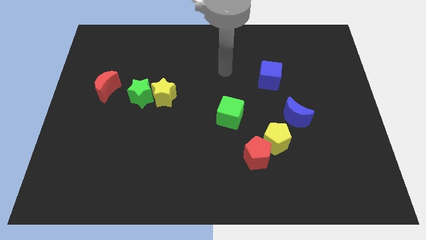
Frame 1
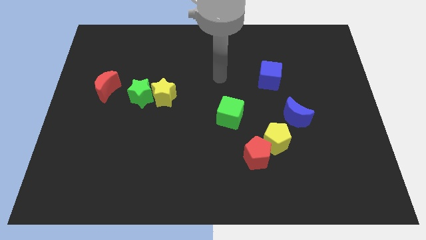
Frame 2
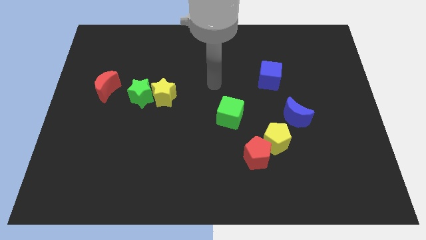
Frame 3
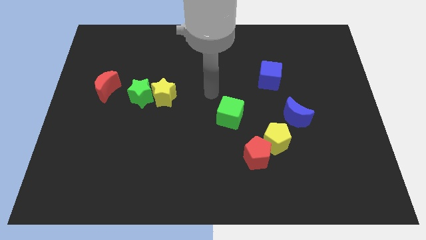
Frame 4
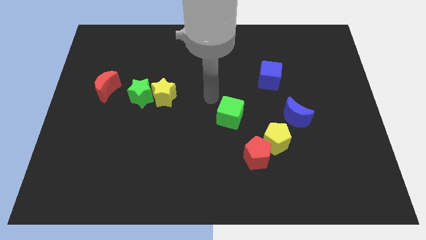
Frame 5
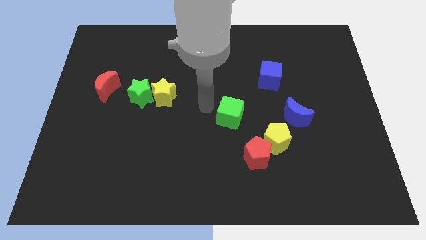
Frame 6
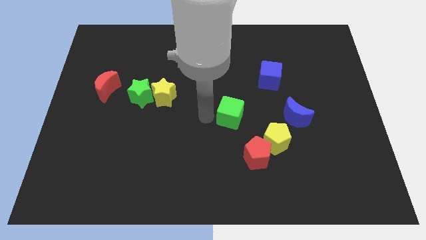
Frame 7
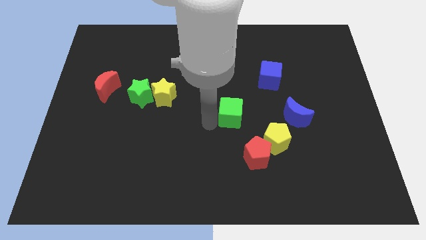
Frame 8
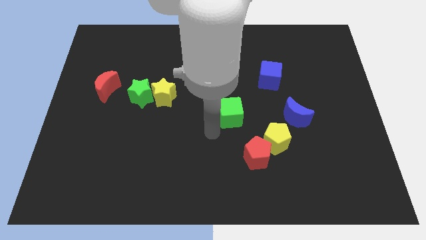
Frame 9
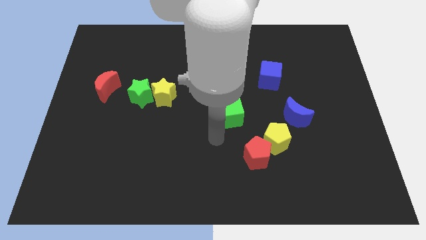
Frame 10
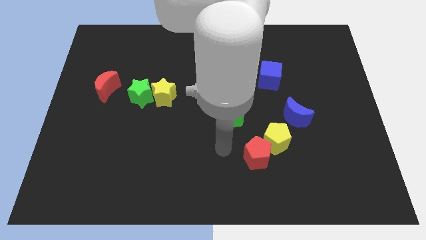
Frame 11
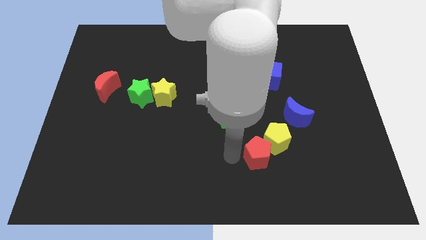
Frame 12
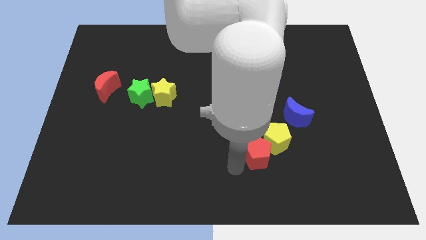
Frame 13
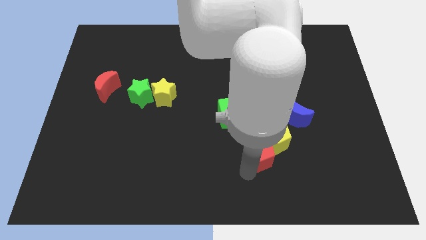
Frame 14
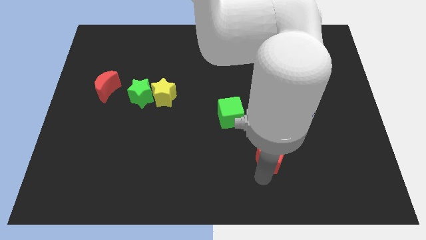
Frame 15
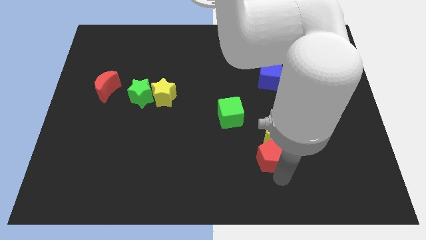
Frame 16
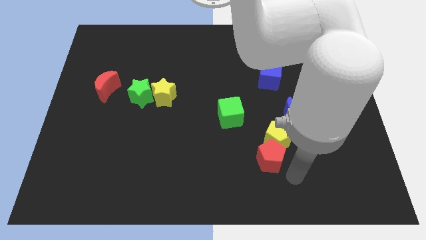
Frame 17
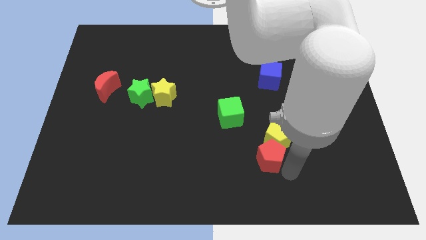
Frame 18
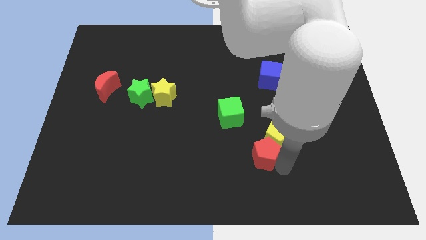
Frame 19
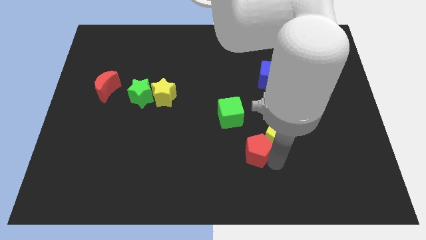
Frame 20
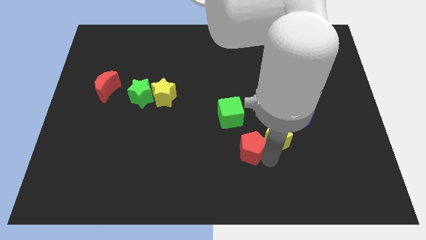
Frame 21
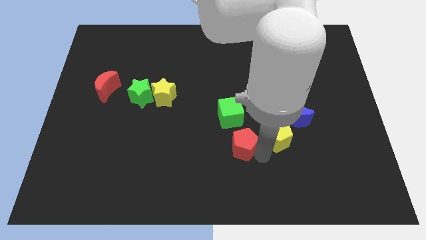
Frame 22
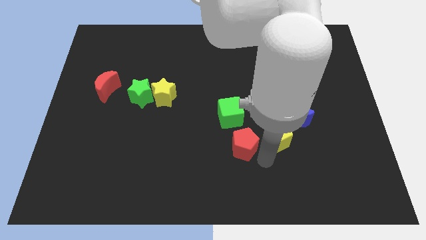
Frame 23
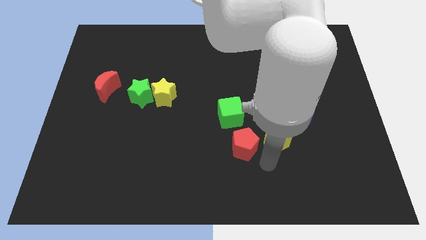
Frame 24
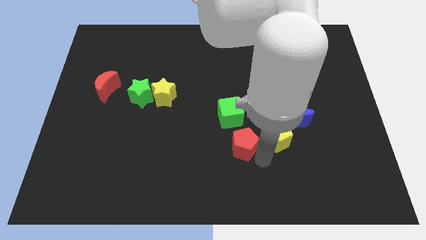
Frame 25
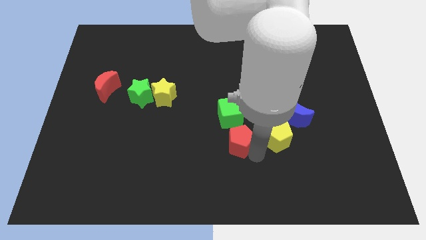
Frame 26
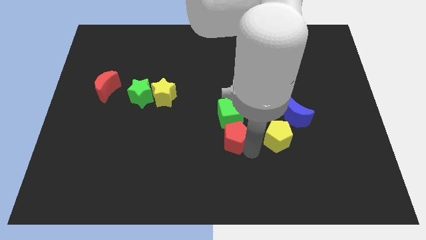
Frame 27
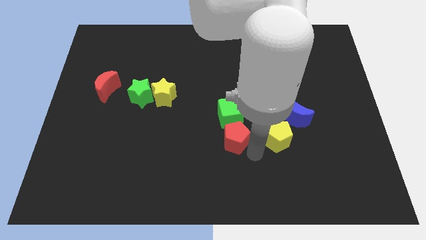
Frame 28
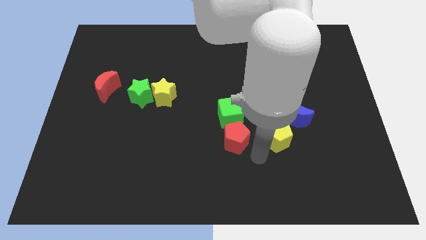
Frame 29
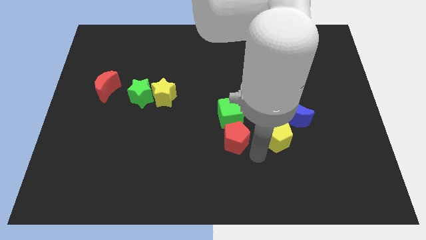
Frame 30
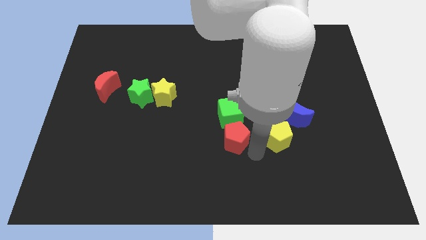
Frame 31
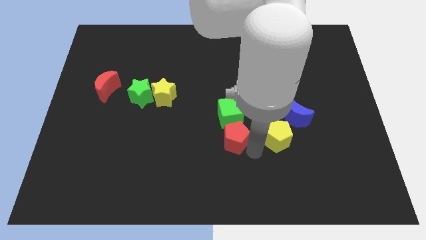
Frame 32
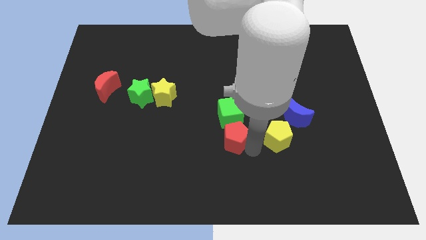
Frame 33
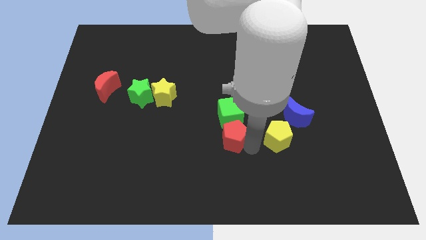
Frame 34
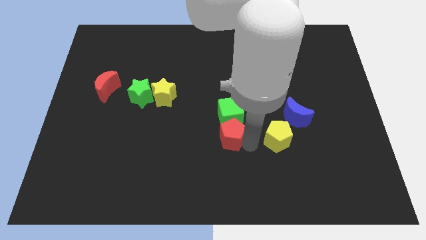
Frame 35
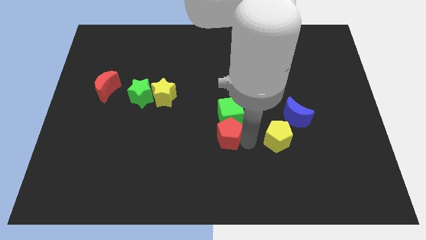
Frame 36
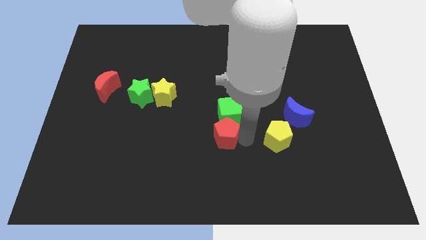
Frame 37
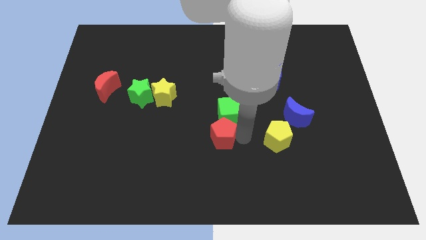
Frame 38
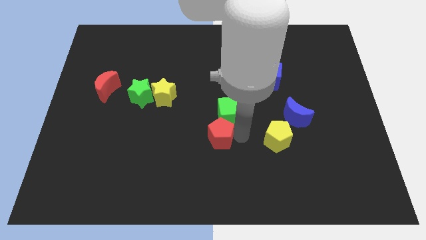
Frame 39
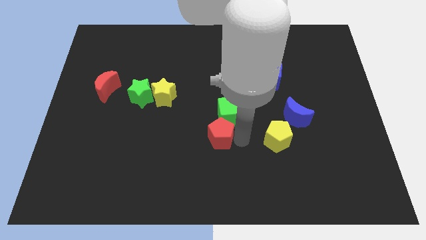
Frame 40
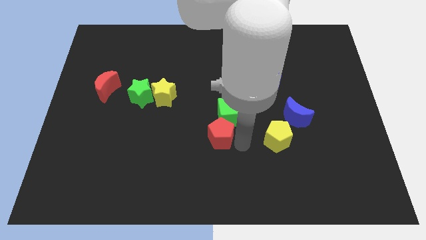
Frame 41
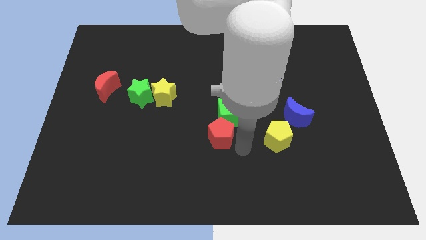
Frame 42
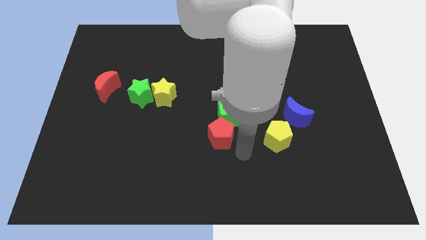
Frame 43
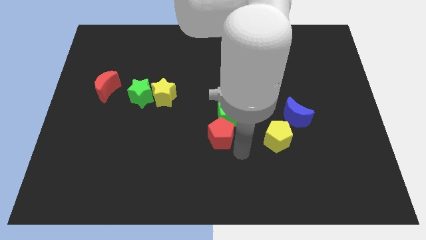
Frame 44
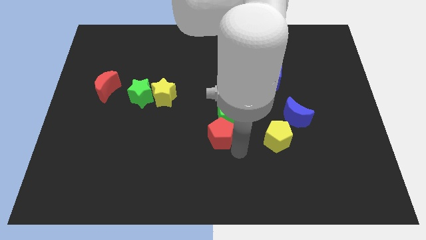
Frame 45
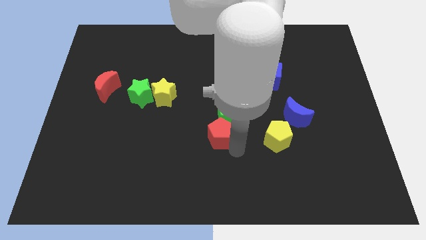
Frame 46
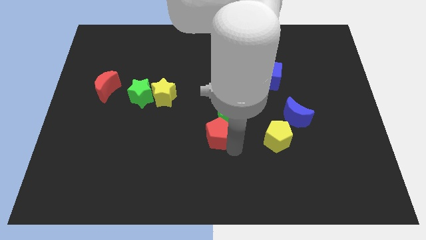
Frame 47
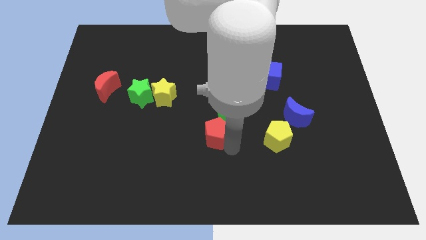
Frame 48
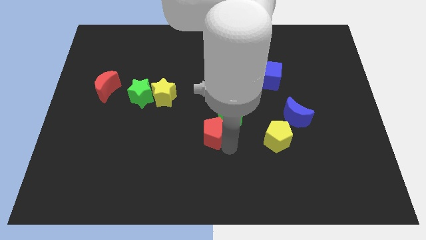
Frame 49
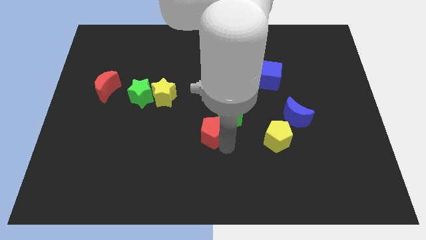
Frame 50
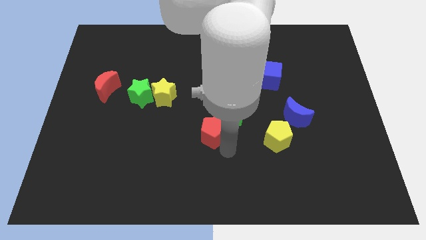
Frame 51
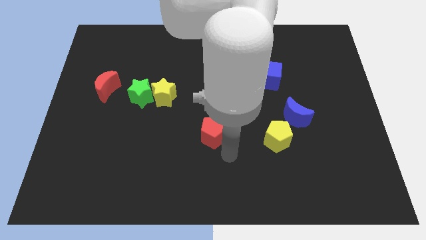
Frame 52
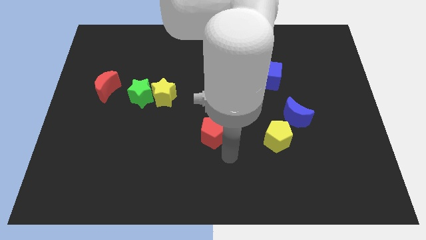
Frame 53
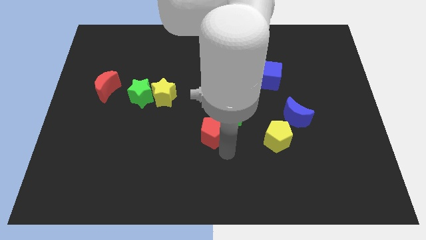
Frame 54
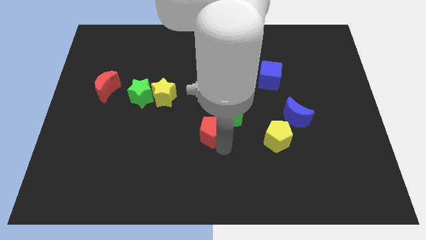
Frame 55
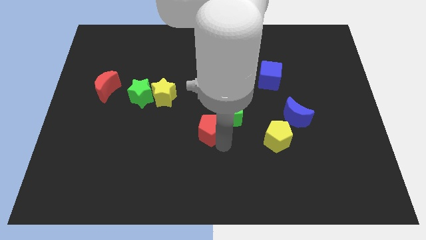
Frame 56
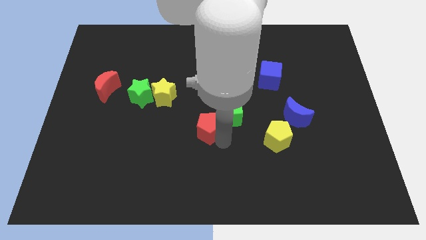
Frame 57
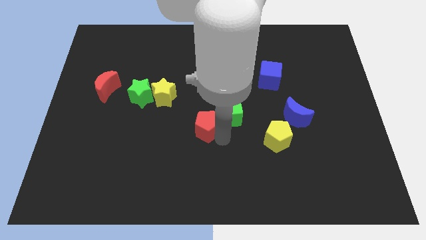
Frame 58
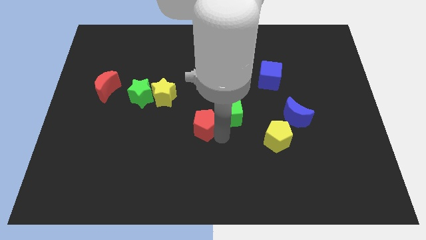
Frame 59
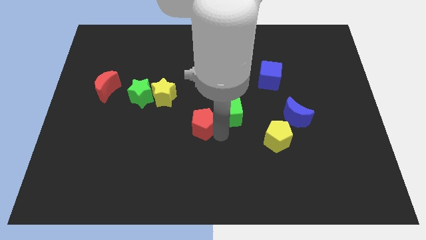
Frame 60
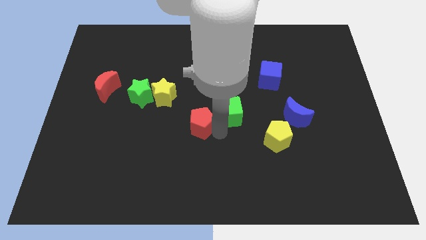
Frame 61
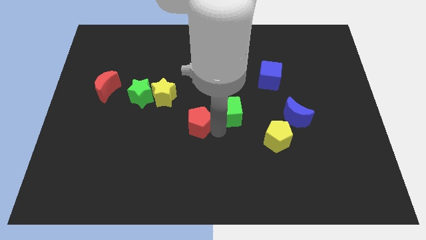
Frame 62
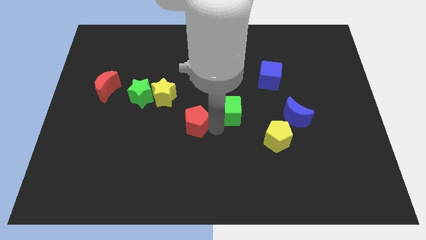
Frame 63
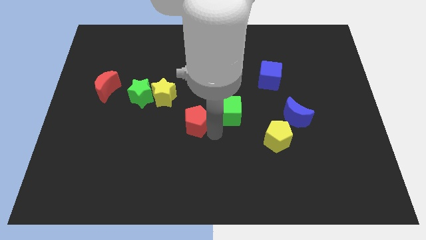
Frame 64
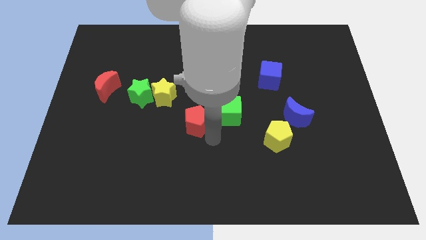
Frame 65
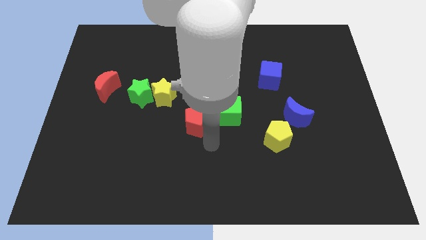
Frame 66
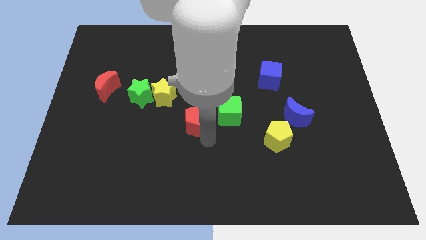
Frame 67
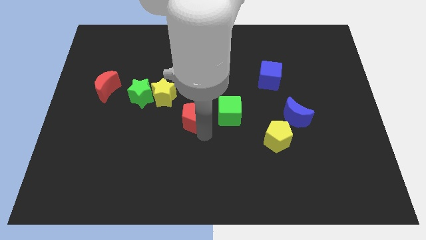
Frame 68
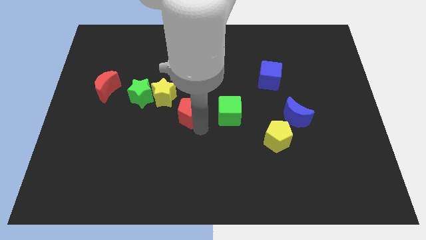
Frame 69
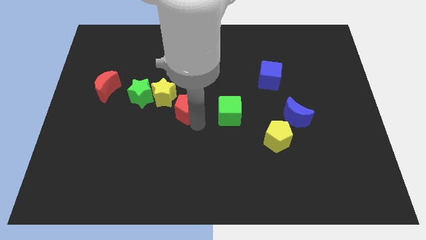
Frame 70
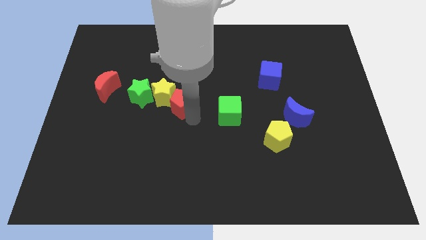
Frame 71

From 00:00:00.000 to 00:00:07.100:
slide the red pentagon up and left

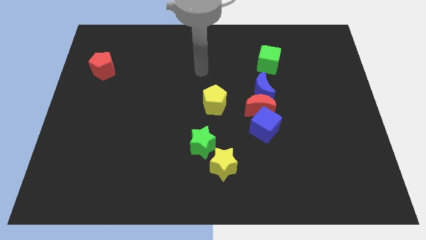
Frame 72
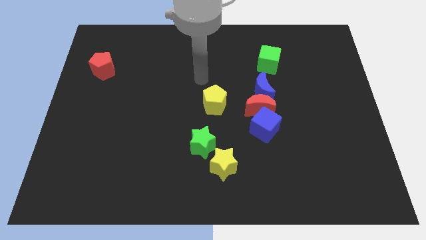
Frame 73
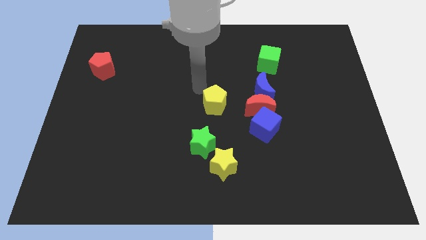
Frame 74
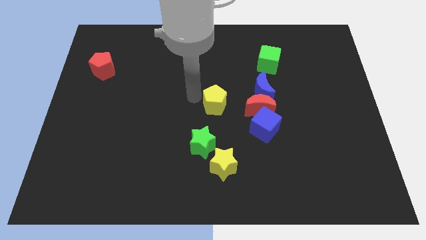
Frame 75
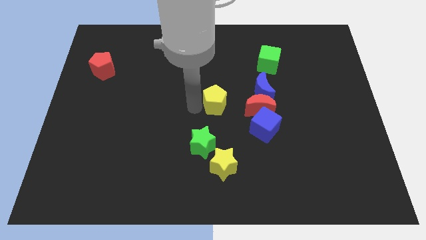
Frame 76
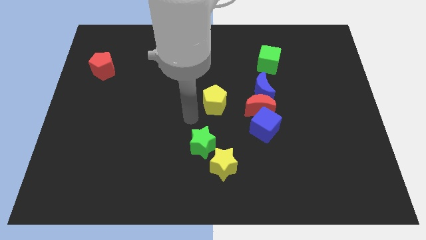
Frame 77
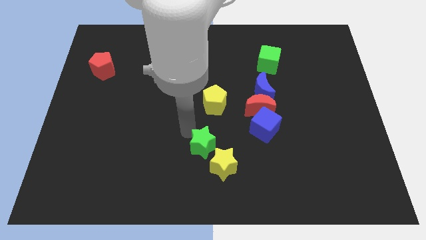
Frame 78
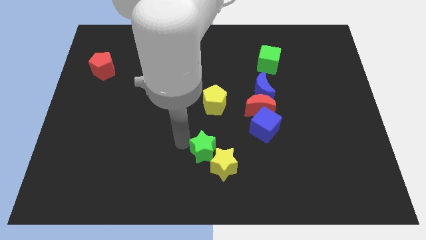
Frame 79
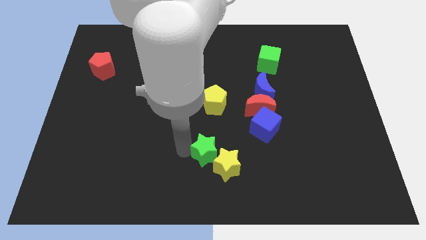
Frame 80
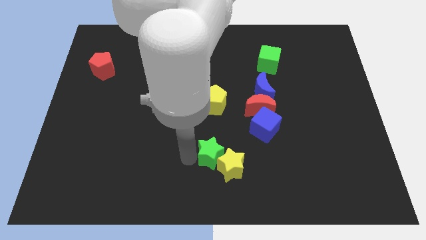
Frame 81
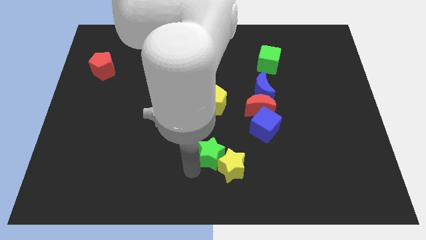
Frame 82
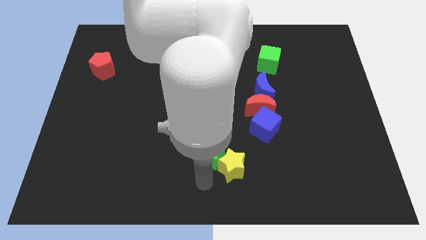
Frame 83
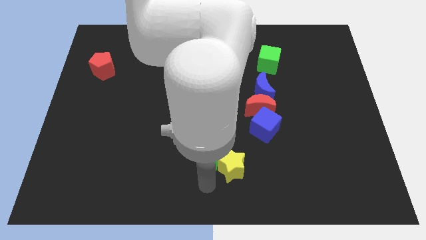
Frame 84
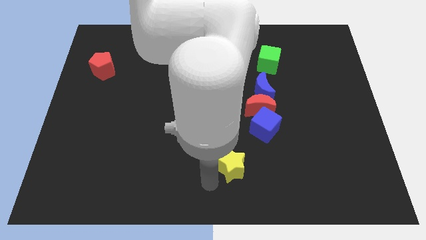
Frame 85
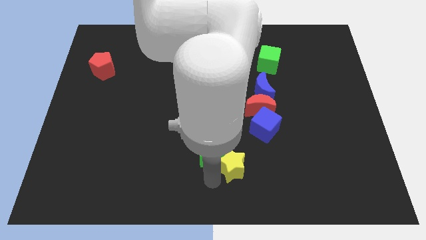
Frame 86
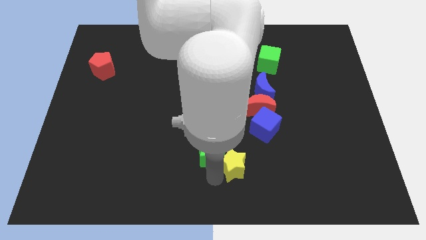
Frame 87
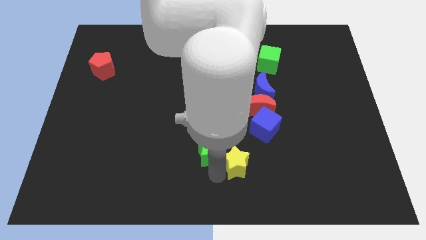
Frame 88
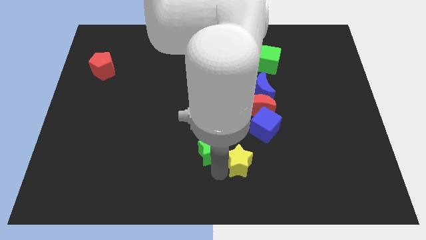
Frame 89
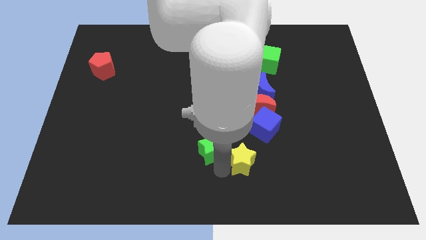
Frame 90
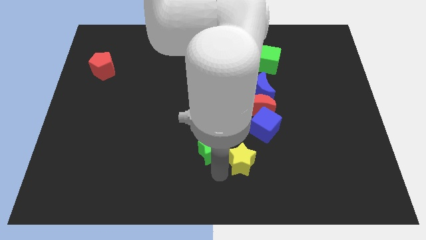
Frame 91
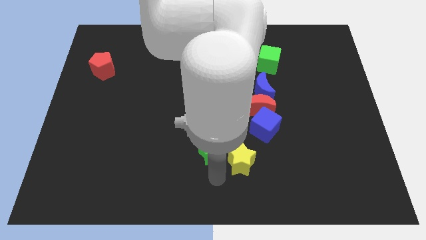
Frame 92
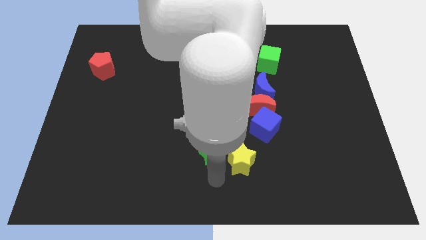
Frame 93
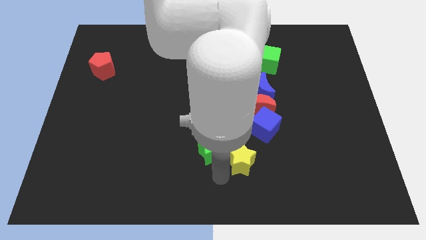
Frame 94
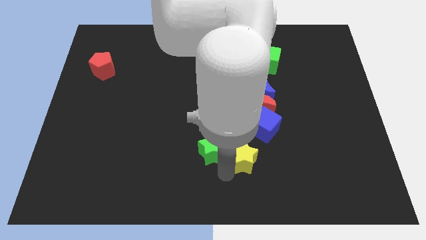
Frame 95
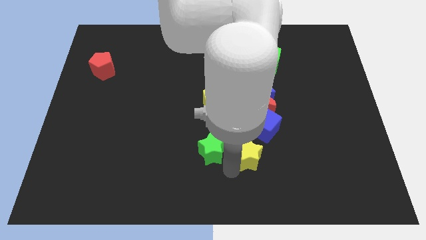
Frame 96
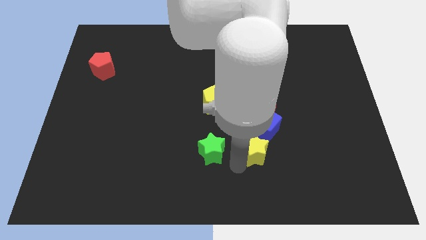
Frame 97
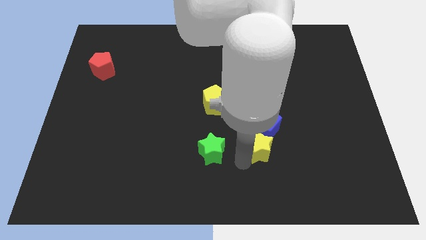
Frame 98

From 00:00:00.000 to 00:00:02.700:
move the yellow star somewhat upwards and to the right
